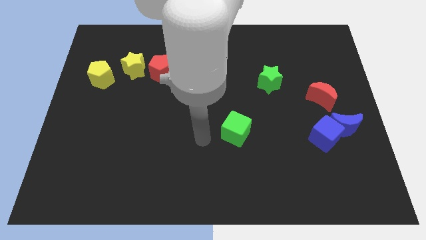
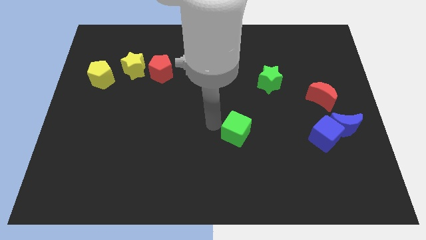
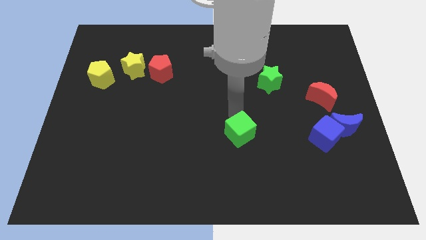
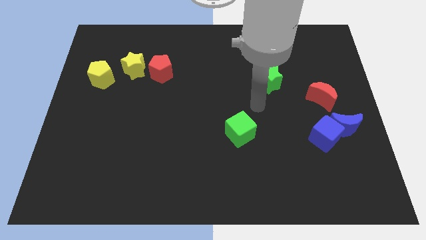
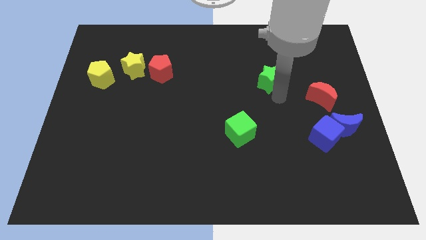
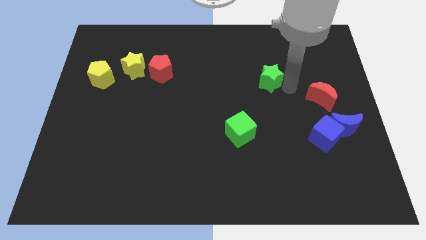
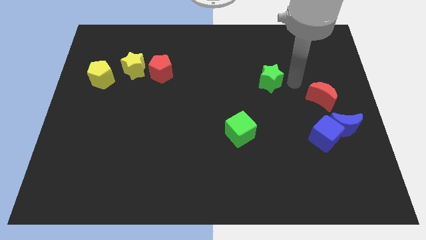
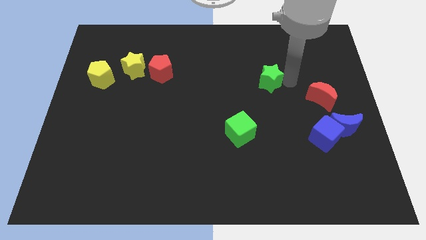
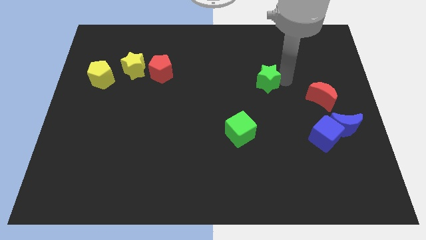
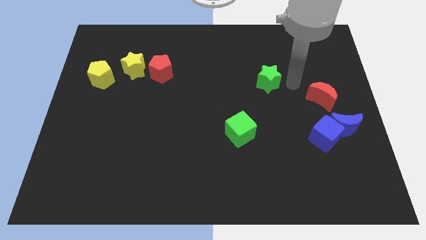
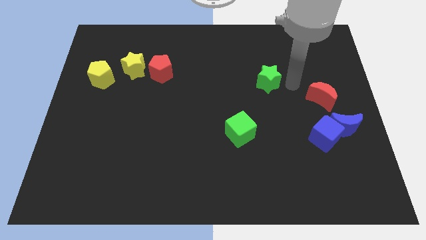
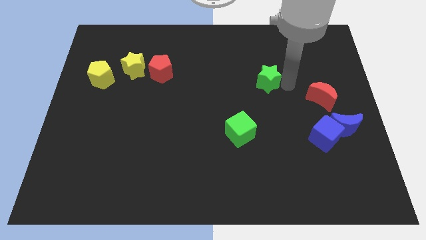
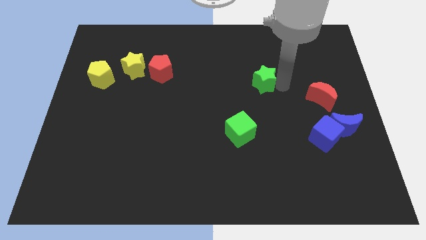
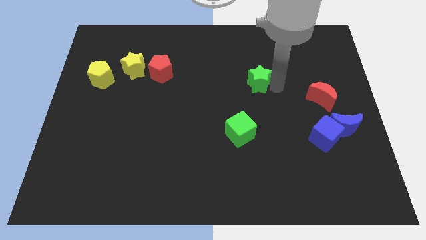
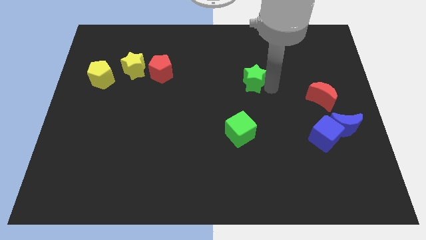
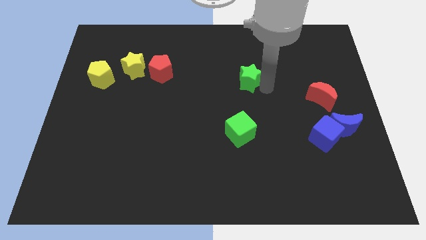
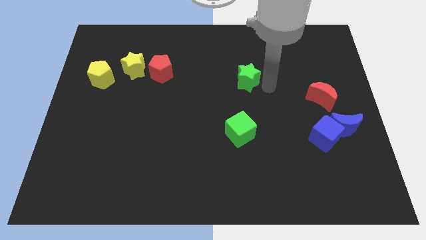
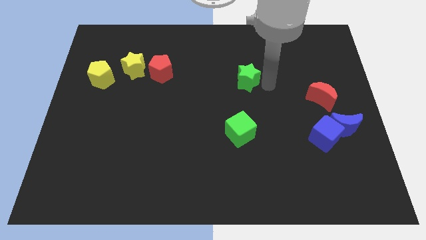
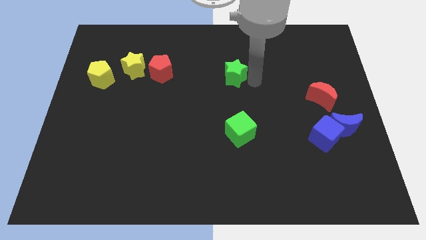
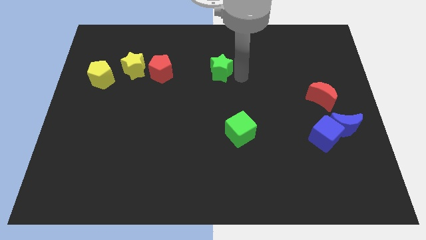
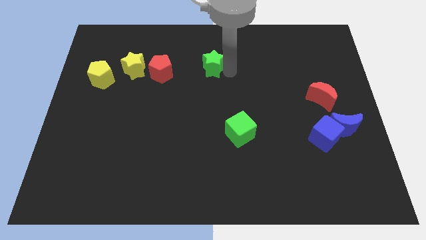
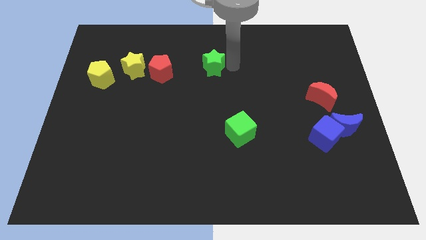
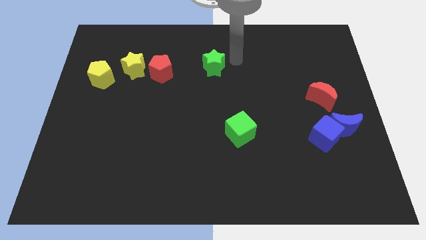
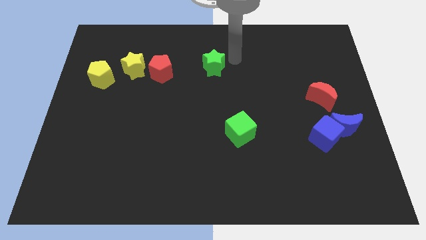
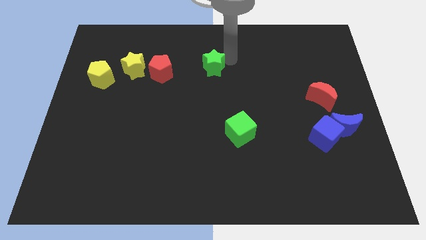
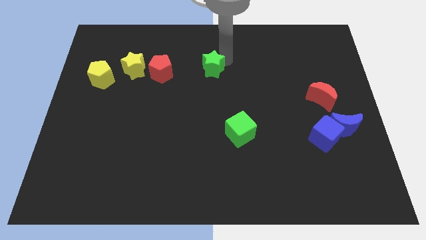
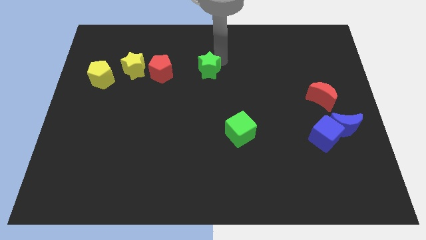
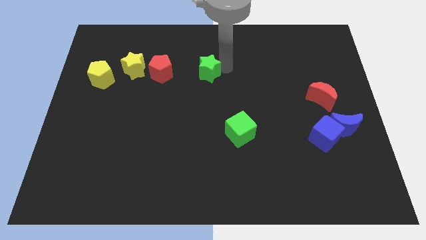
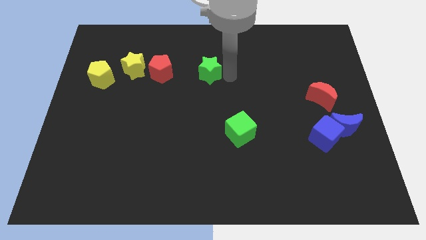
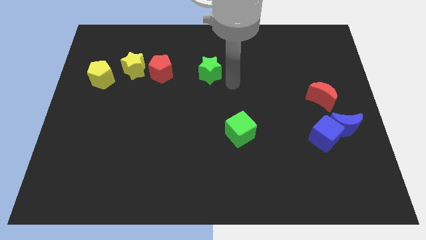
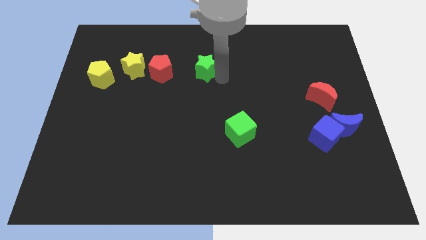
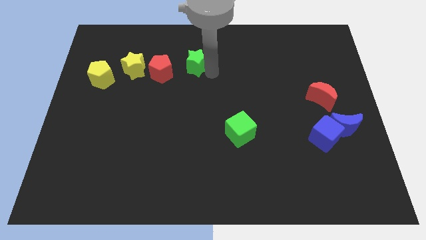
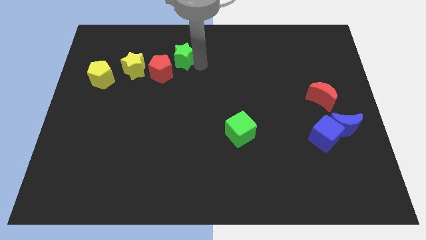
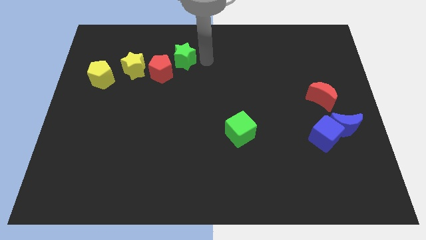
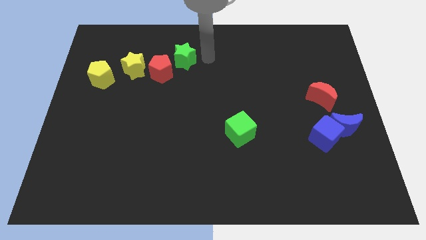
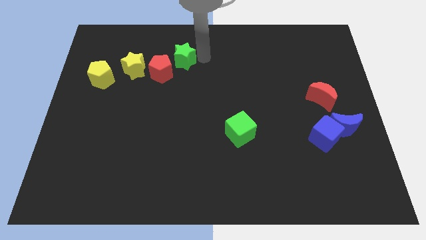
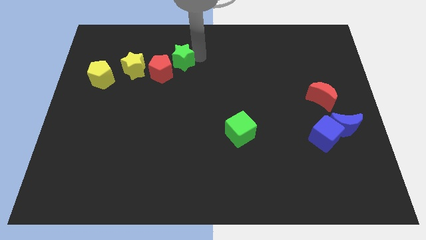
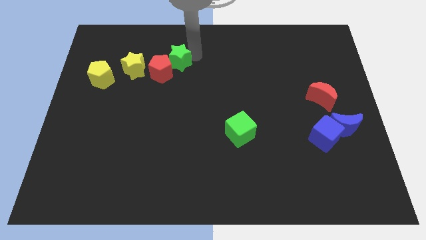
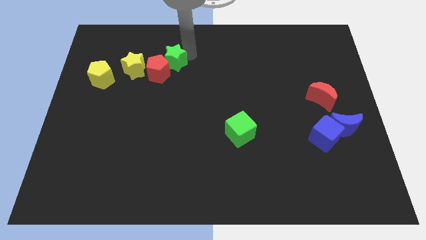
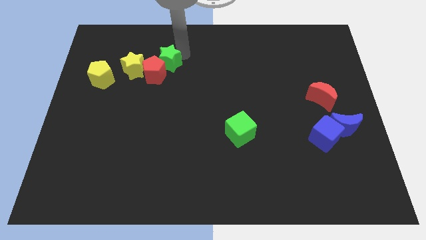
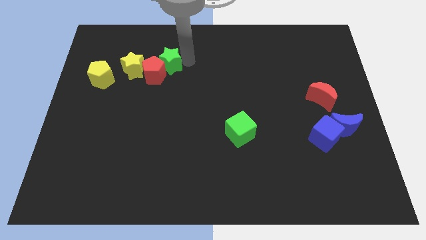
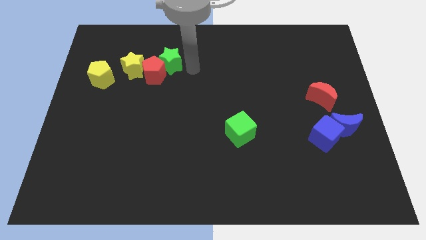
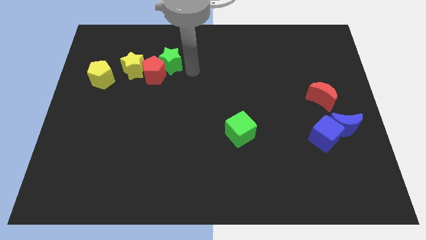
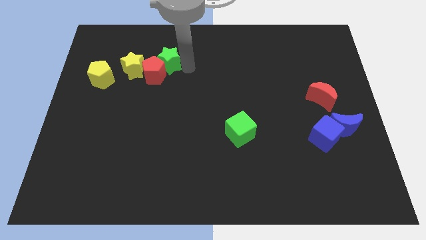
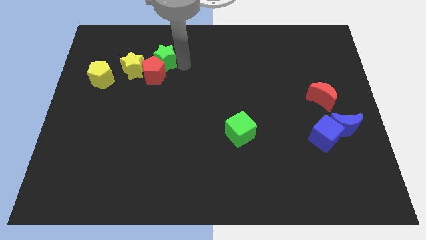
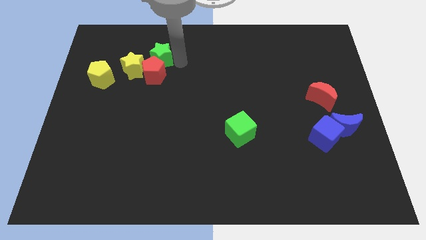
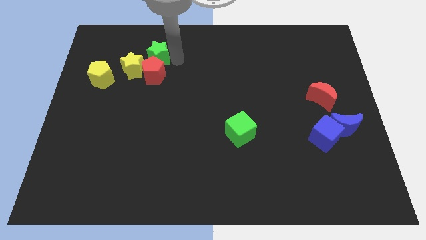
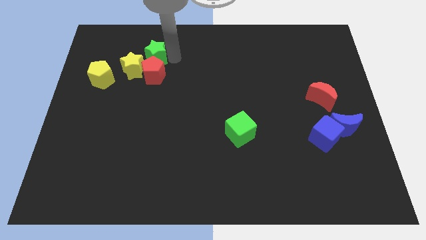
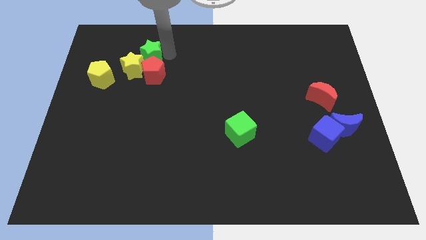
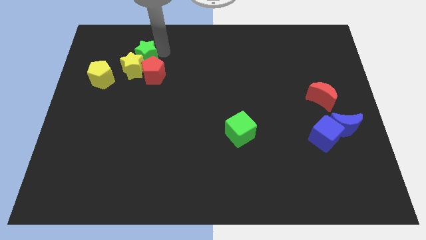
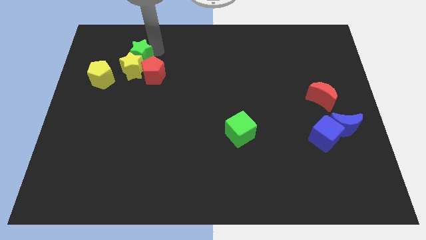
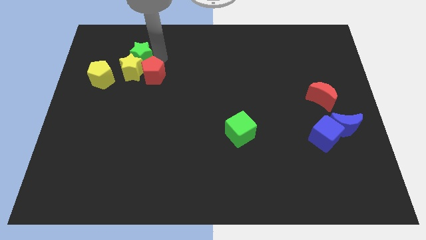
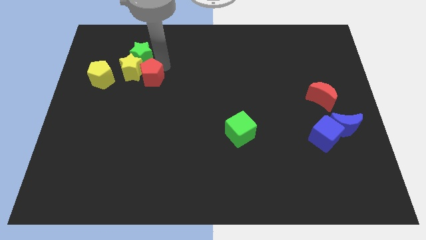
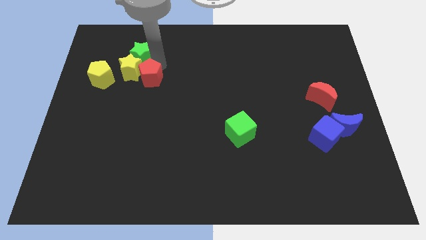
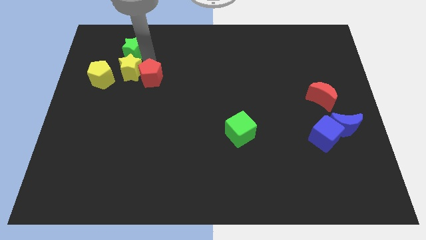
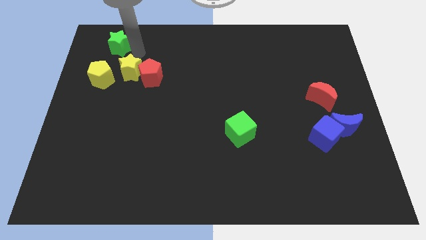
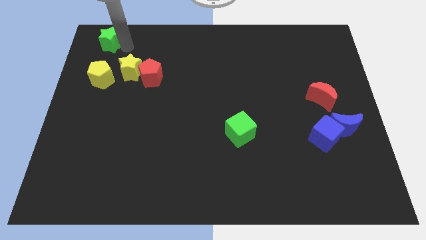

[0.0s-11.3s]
slide the green star to the top left

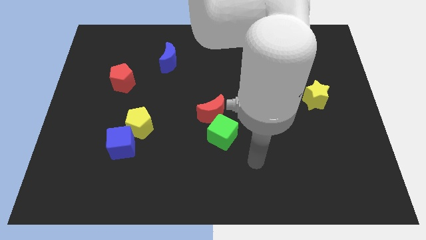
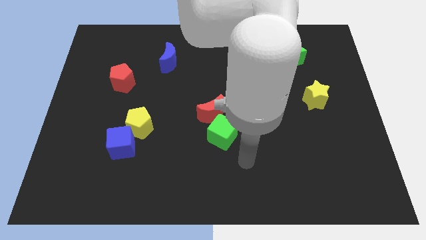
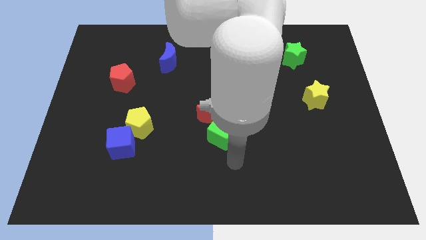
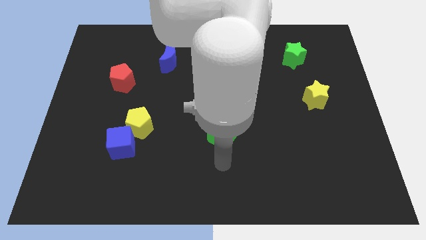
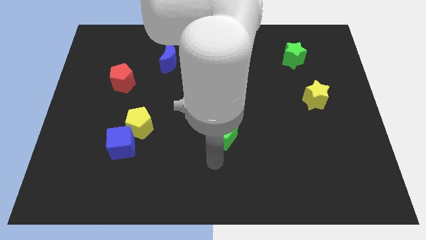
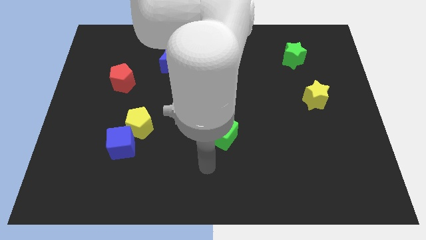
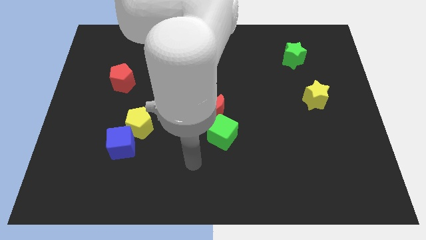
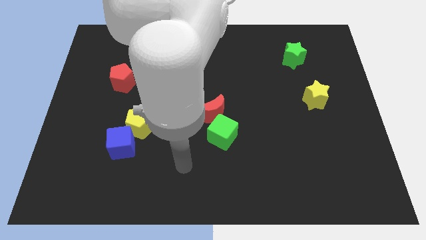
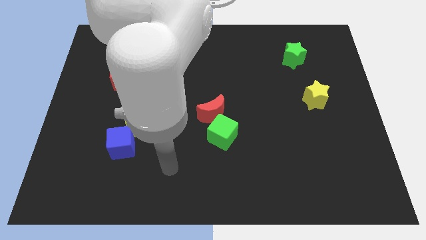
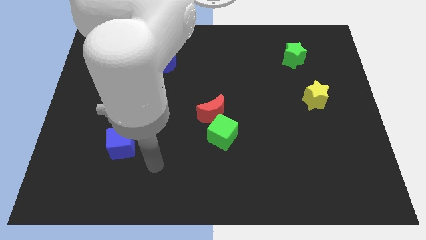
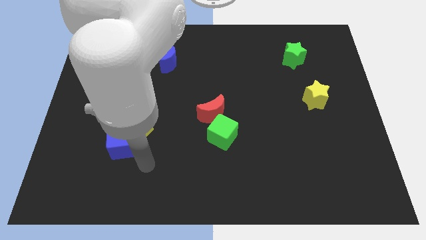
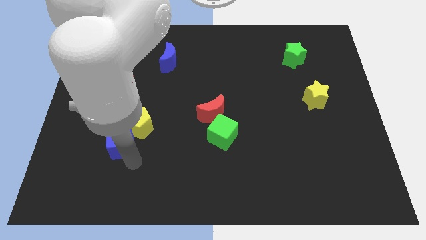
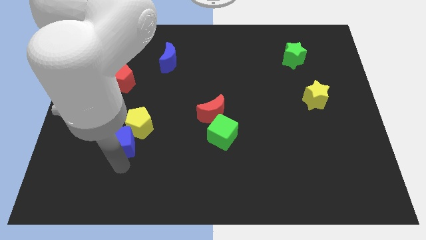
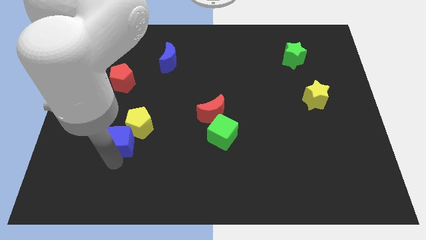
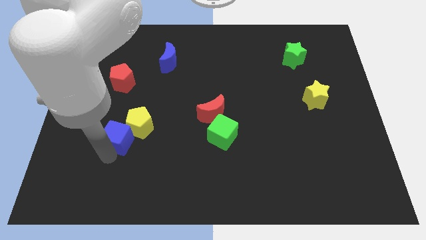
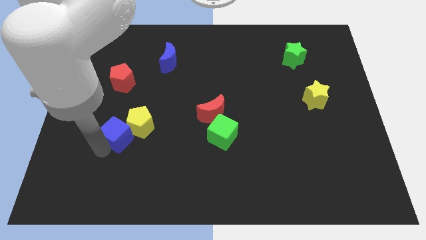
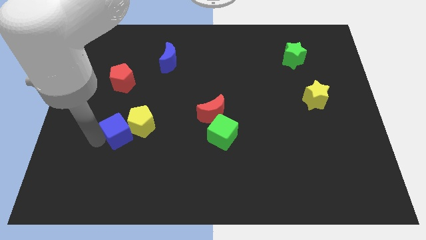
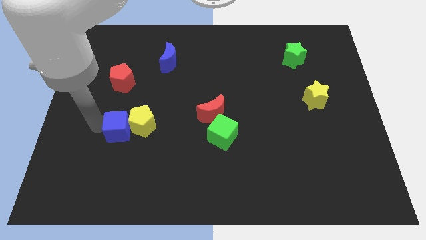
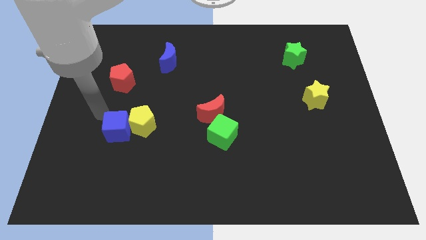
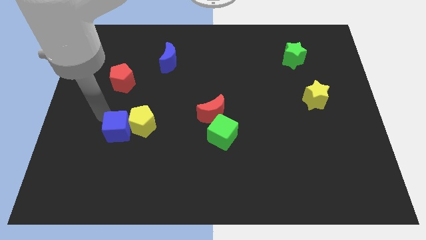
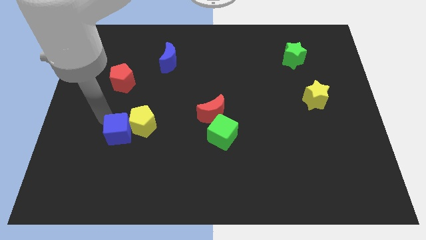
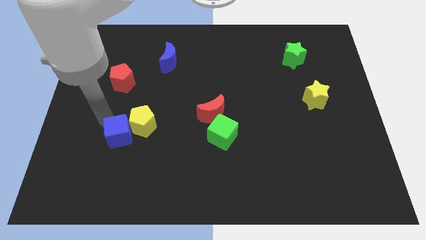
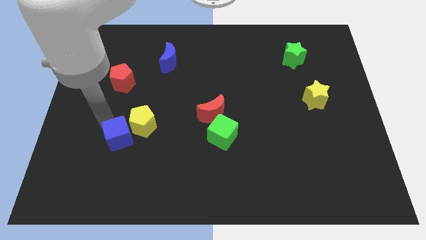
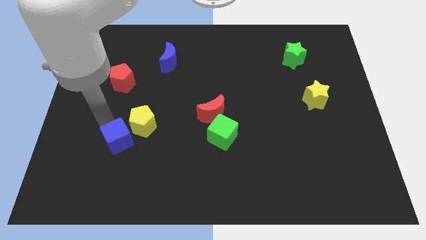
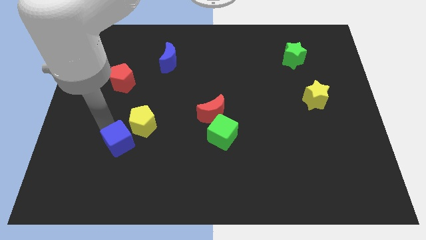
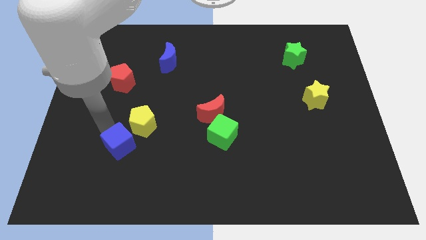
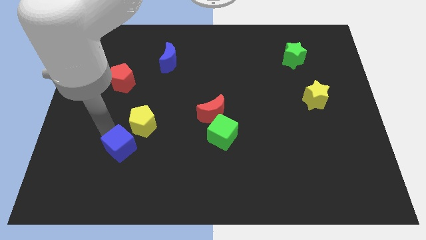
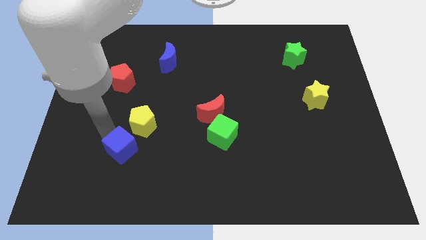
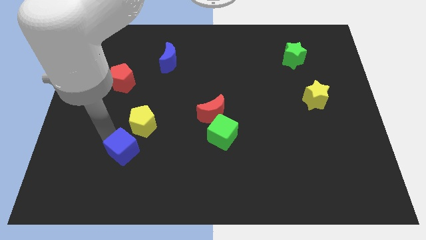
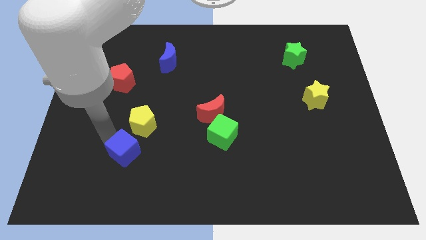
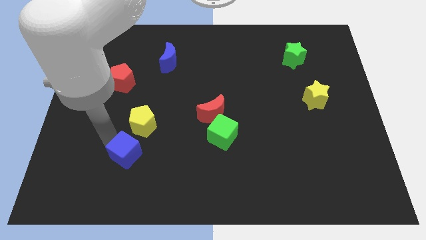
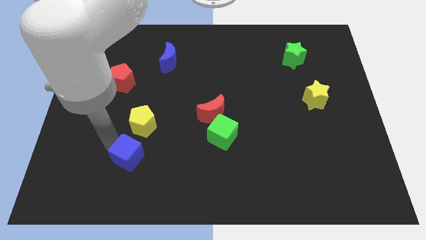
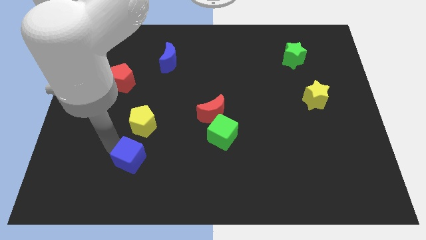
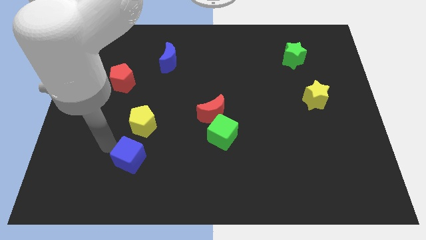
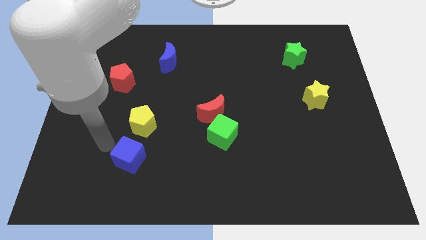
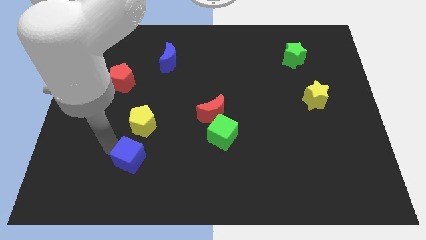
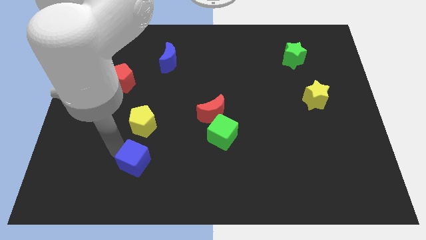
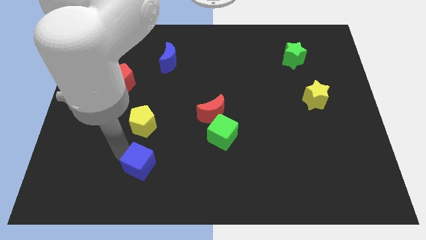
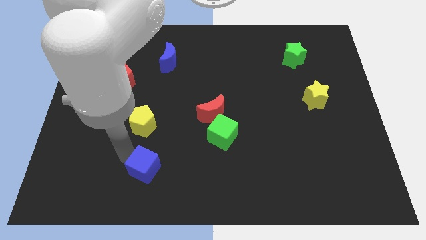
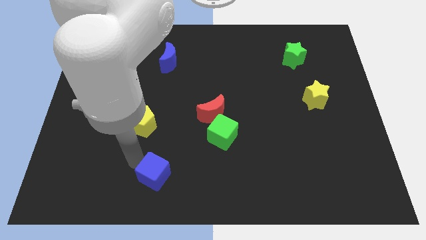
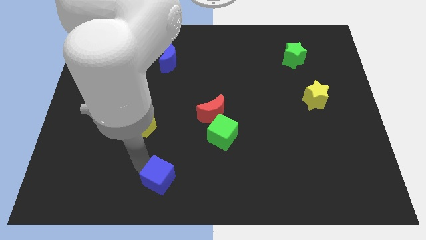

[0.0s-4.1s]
push the blue cube to the bottom side
